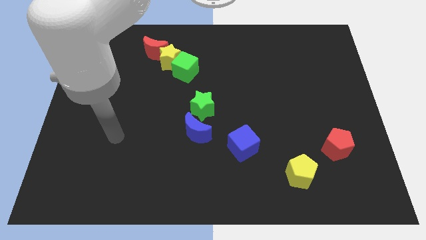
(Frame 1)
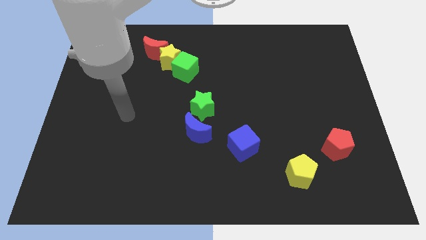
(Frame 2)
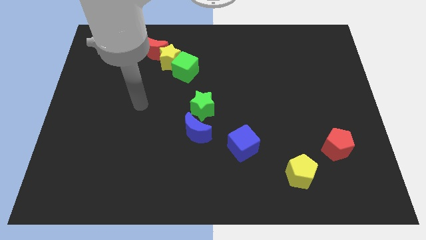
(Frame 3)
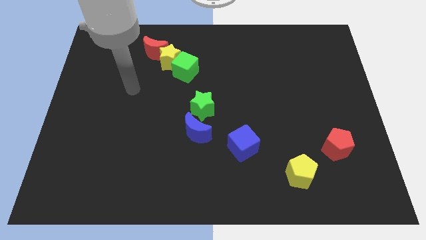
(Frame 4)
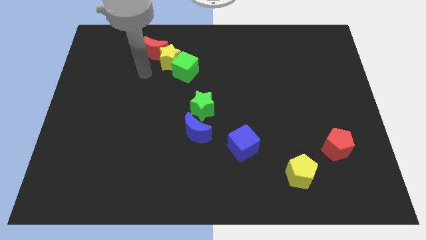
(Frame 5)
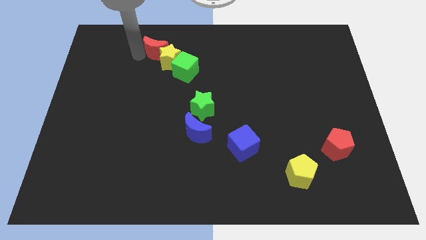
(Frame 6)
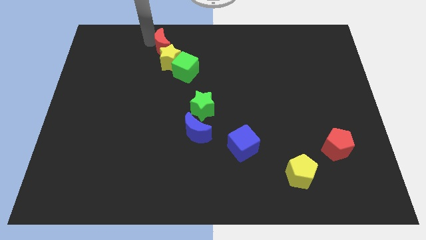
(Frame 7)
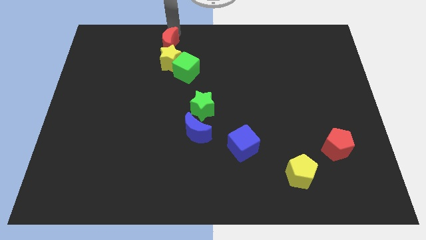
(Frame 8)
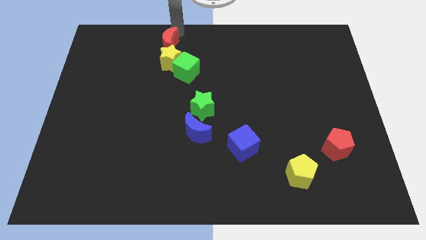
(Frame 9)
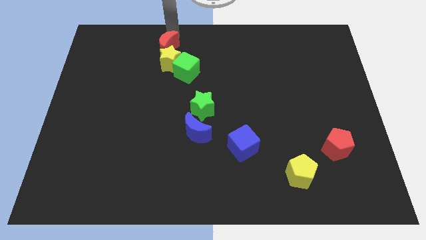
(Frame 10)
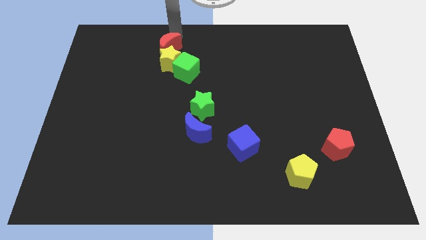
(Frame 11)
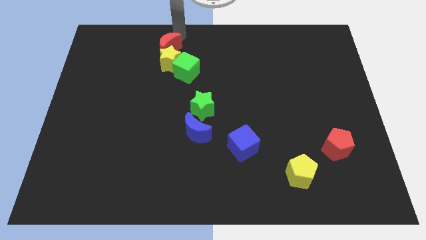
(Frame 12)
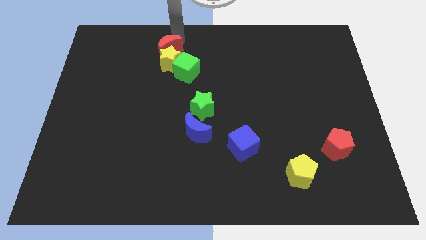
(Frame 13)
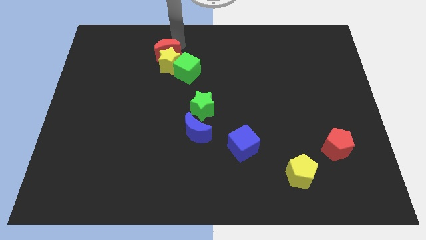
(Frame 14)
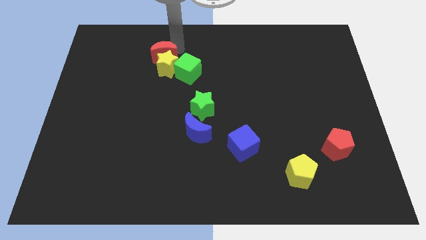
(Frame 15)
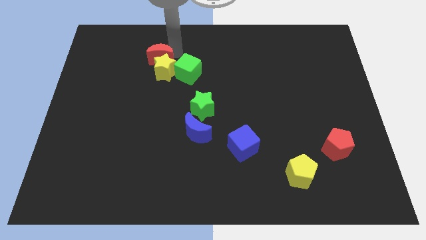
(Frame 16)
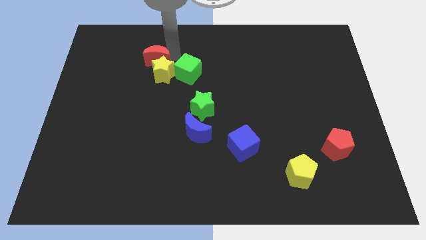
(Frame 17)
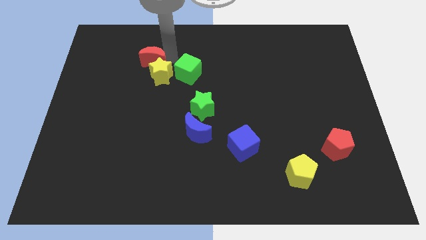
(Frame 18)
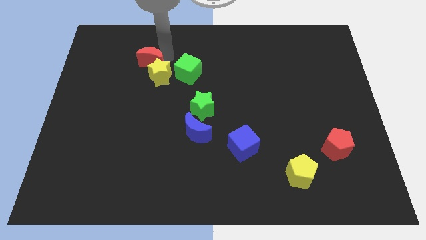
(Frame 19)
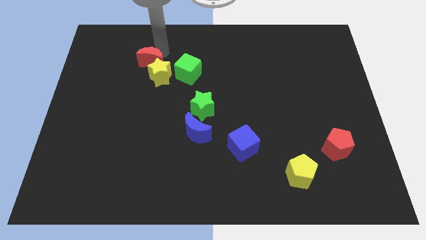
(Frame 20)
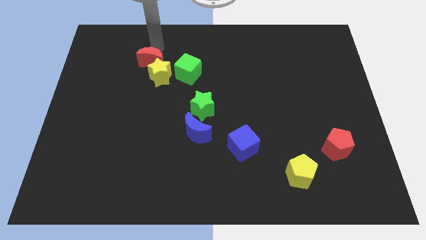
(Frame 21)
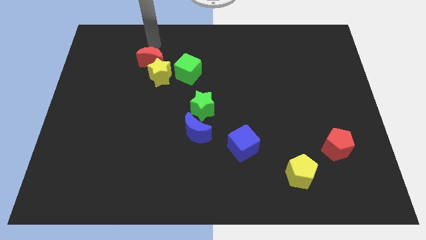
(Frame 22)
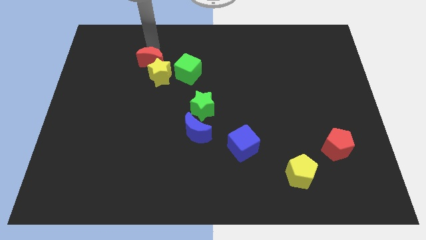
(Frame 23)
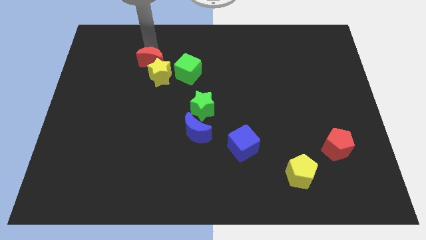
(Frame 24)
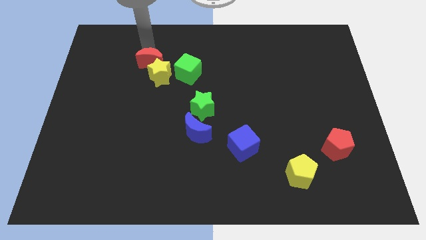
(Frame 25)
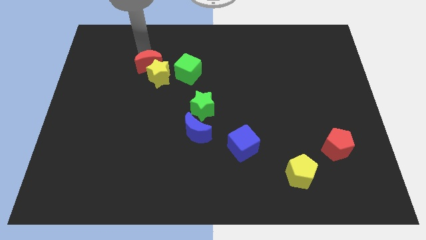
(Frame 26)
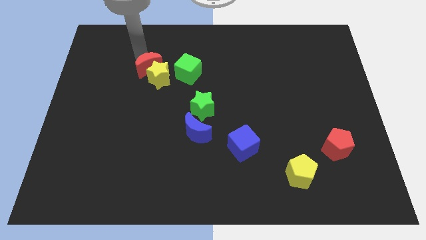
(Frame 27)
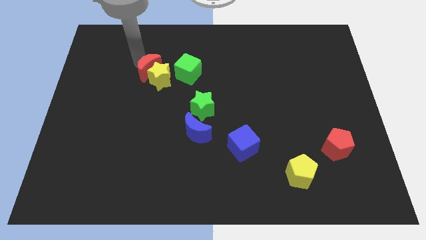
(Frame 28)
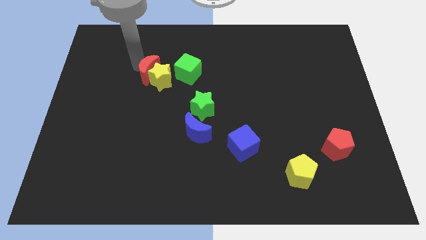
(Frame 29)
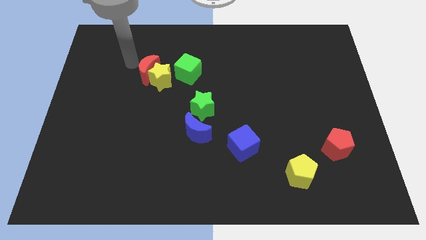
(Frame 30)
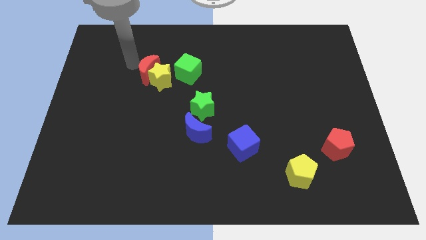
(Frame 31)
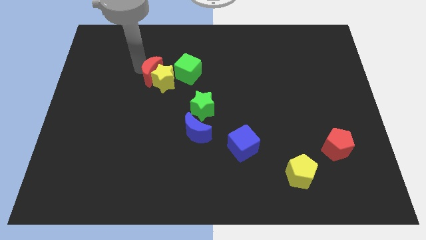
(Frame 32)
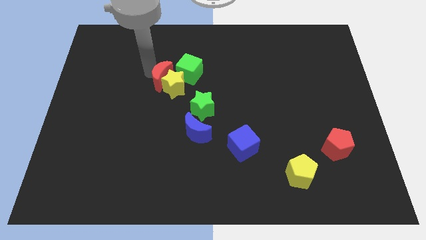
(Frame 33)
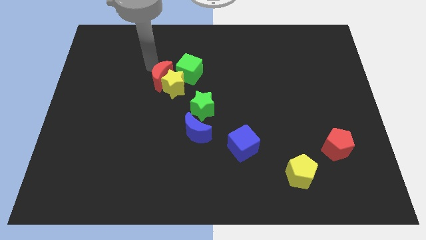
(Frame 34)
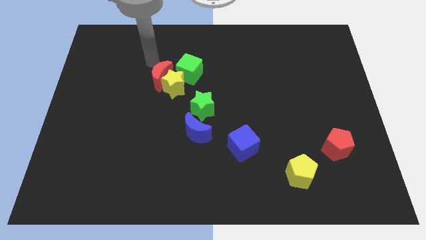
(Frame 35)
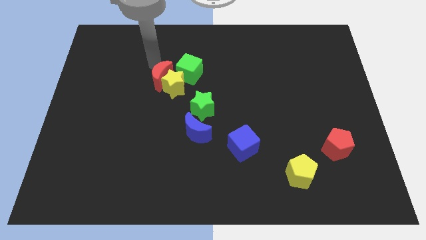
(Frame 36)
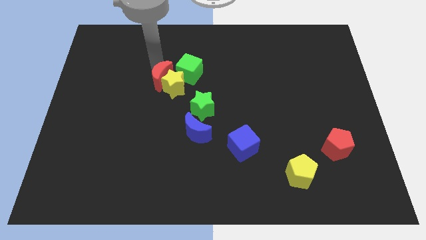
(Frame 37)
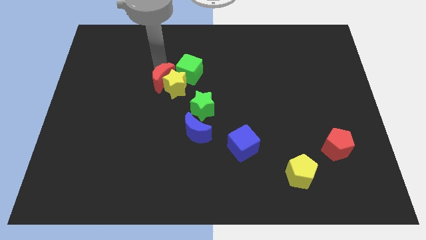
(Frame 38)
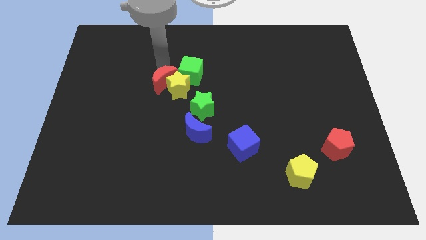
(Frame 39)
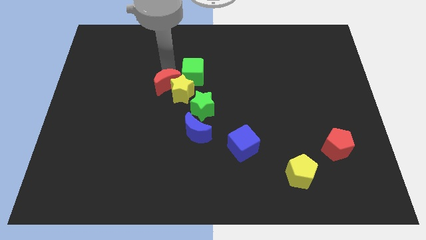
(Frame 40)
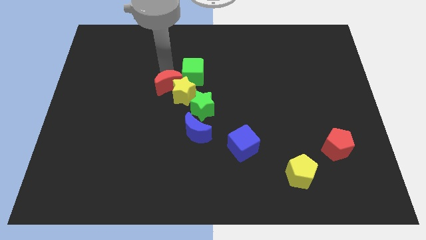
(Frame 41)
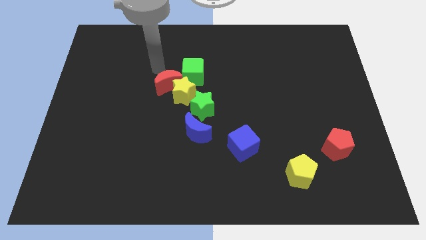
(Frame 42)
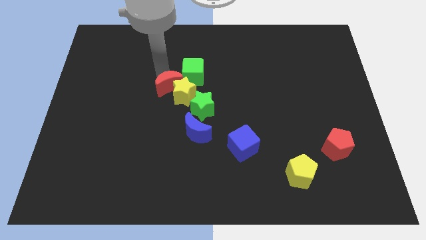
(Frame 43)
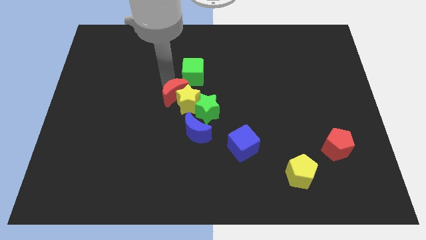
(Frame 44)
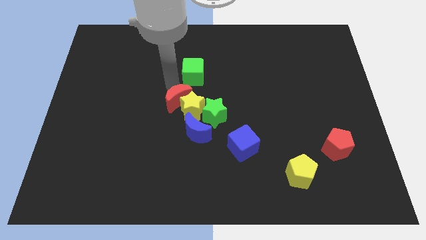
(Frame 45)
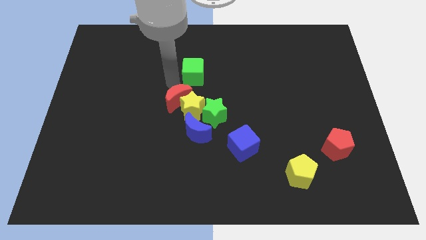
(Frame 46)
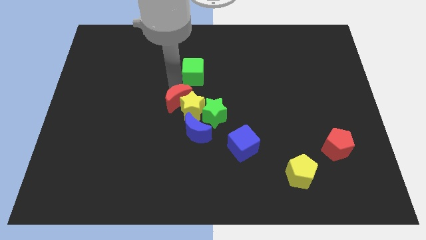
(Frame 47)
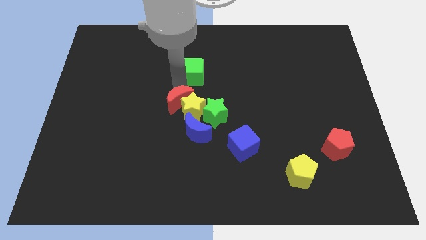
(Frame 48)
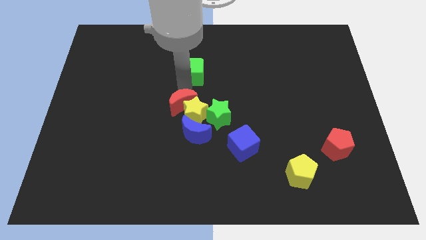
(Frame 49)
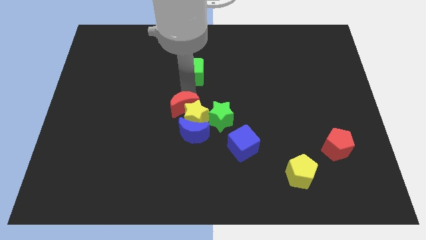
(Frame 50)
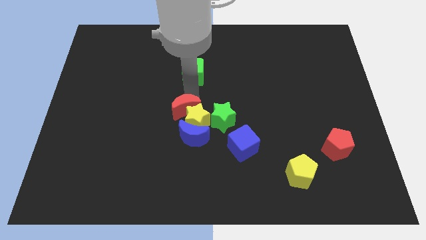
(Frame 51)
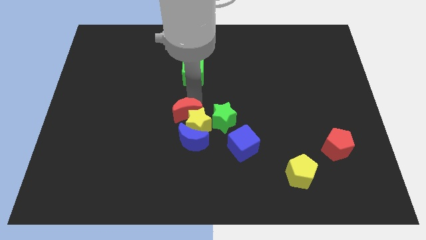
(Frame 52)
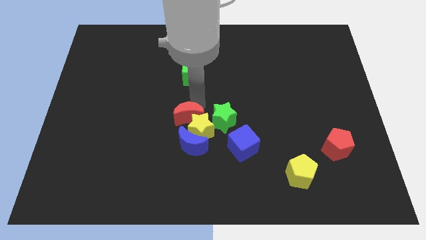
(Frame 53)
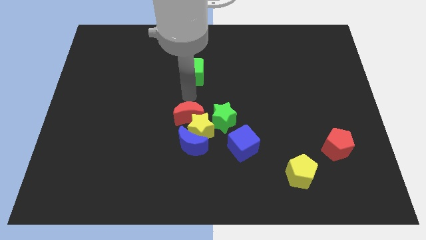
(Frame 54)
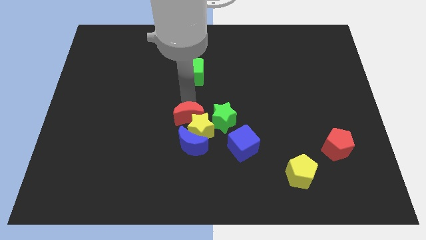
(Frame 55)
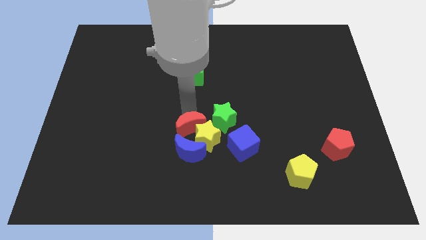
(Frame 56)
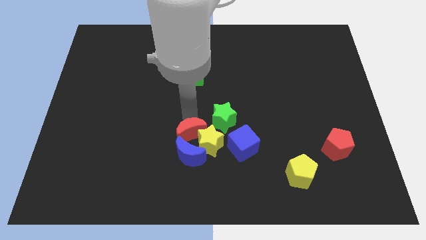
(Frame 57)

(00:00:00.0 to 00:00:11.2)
slide the red moon to the blue moon

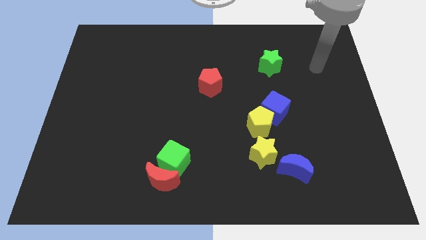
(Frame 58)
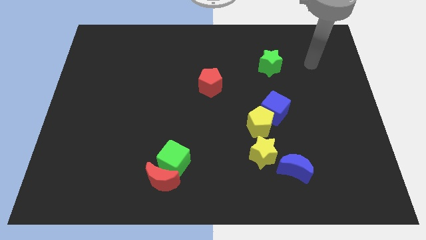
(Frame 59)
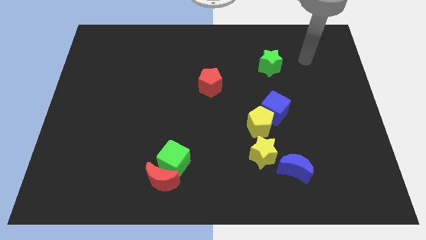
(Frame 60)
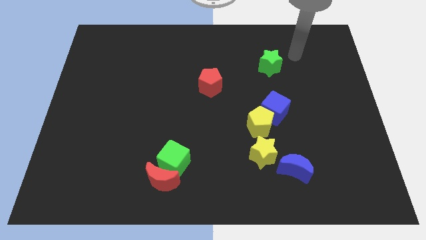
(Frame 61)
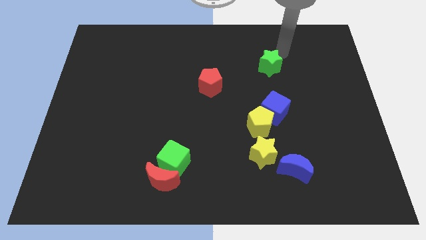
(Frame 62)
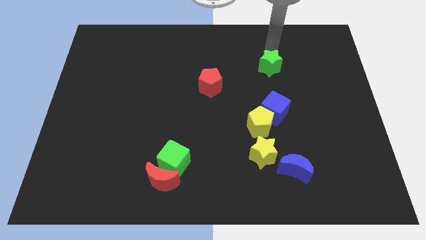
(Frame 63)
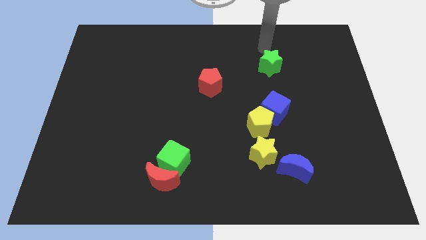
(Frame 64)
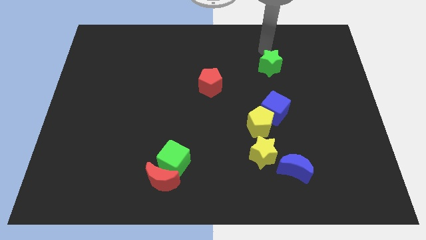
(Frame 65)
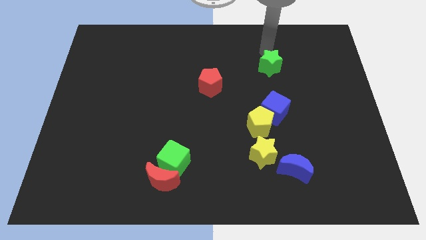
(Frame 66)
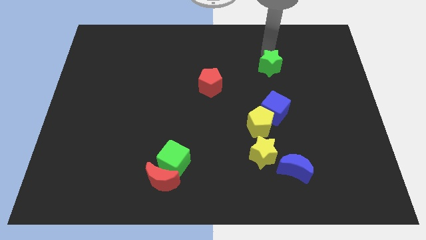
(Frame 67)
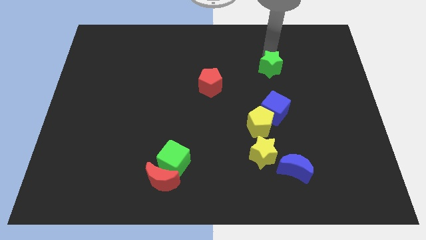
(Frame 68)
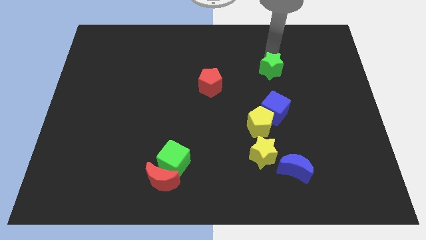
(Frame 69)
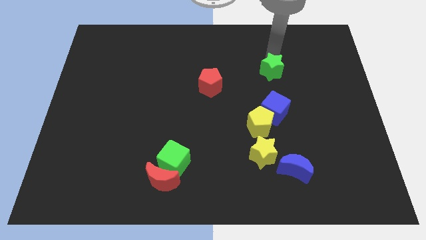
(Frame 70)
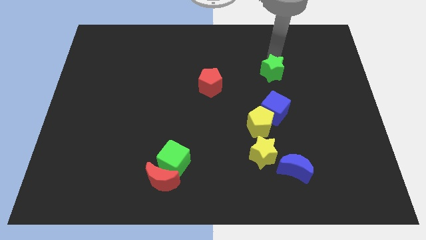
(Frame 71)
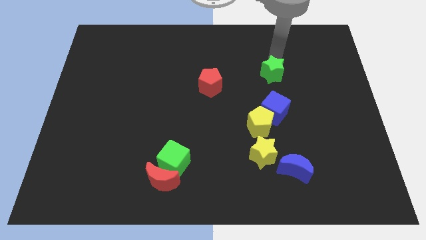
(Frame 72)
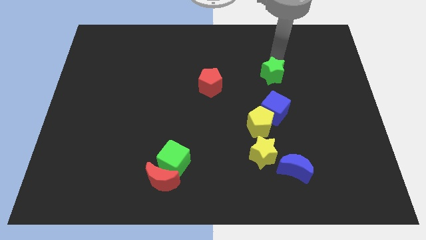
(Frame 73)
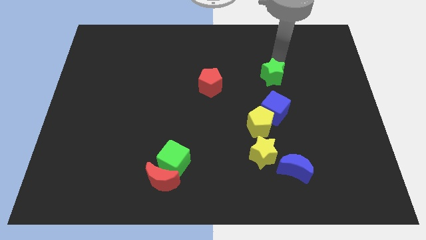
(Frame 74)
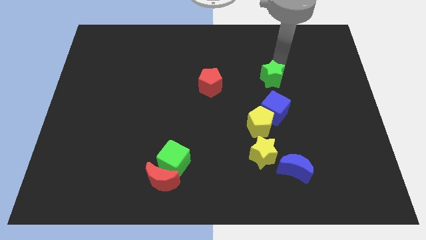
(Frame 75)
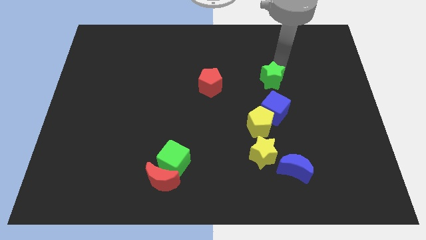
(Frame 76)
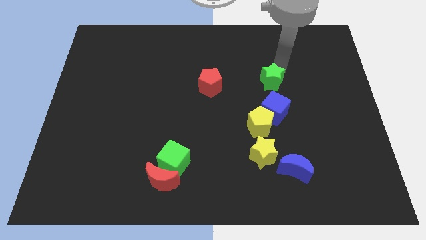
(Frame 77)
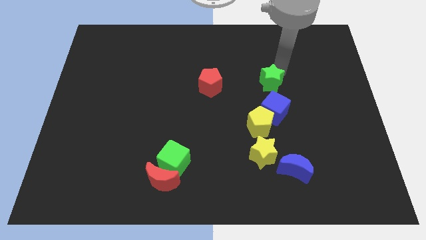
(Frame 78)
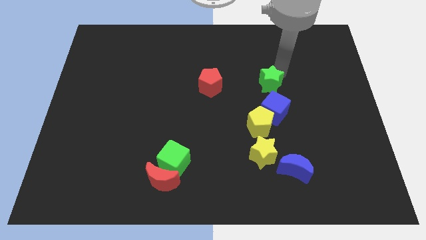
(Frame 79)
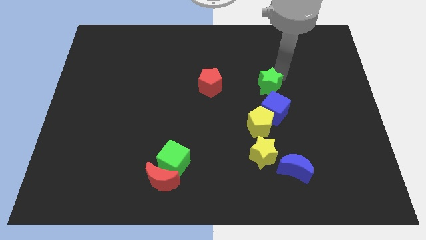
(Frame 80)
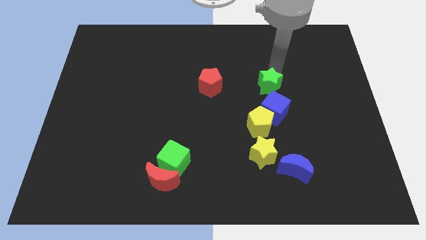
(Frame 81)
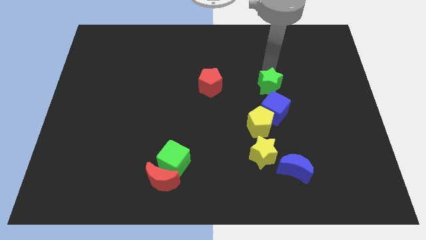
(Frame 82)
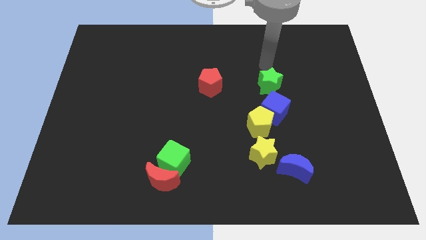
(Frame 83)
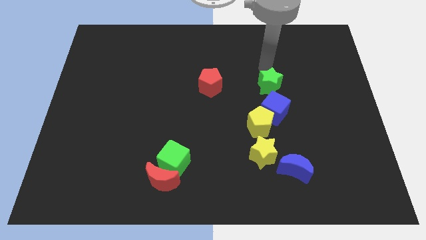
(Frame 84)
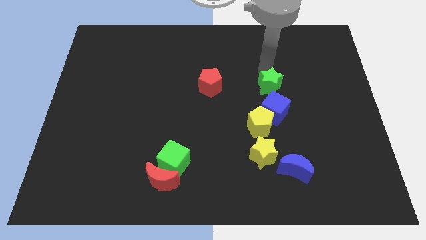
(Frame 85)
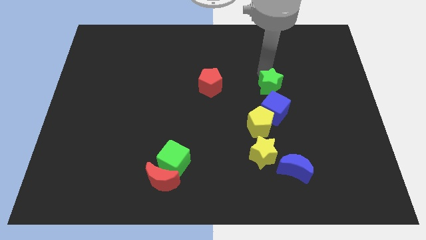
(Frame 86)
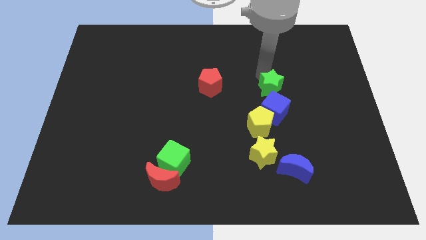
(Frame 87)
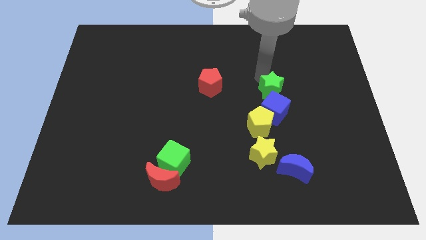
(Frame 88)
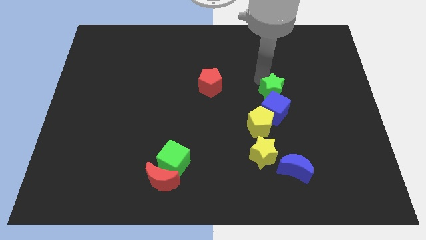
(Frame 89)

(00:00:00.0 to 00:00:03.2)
slide the green star towards the blue cube
